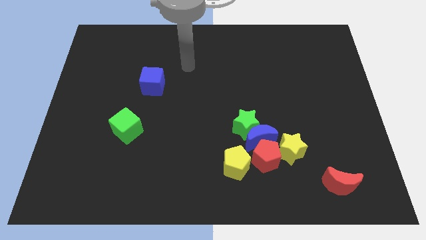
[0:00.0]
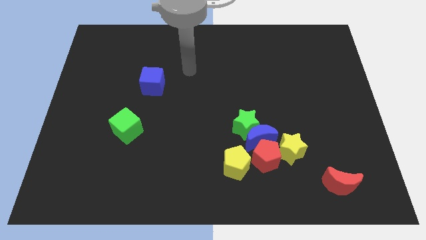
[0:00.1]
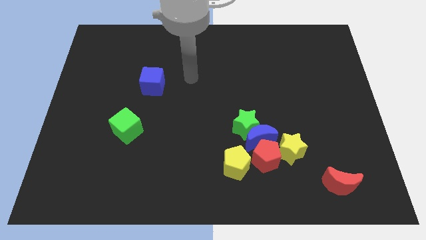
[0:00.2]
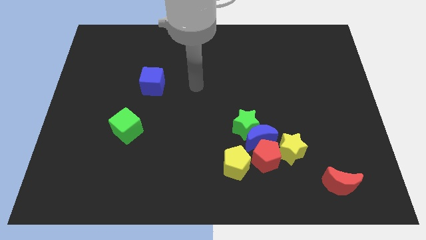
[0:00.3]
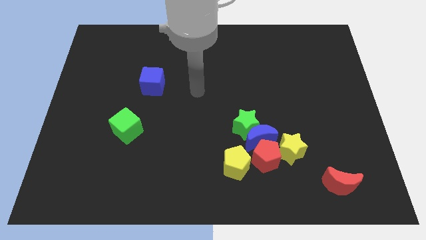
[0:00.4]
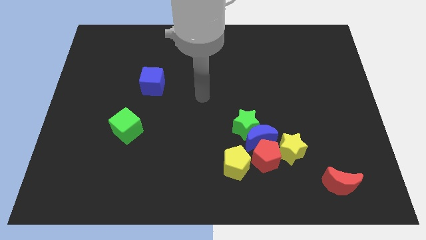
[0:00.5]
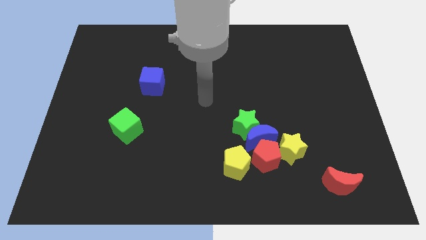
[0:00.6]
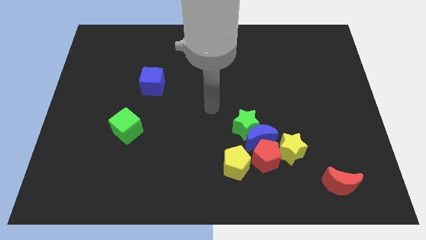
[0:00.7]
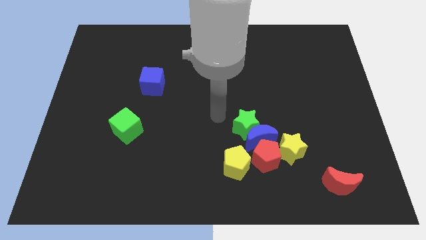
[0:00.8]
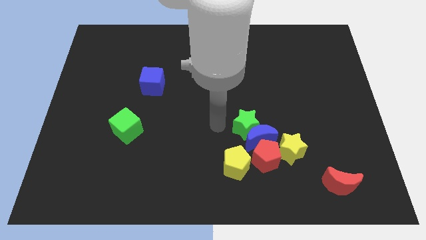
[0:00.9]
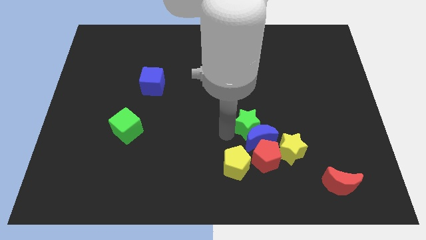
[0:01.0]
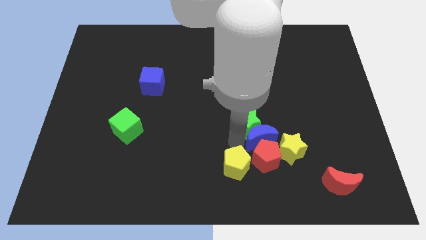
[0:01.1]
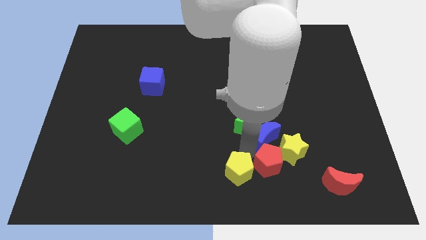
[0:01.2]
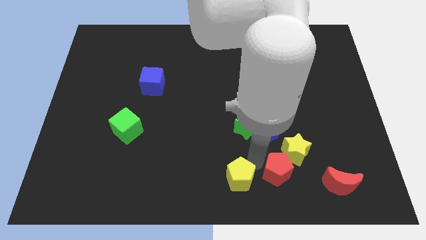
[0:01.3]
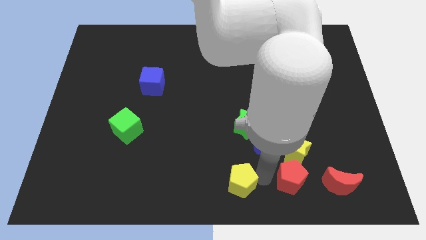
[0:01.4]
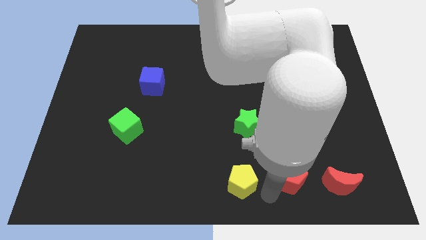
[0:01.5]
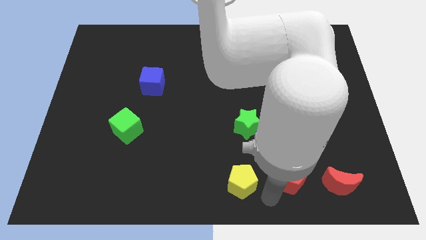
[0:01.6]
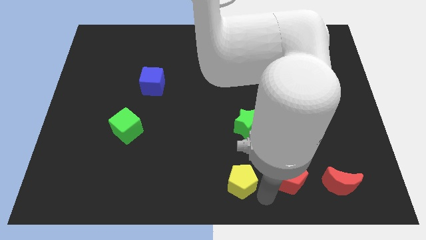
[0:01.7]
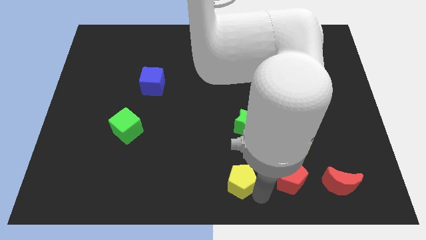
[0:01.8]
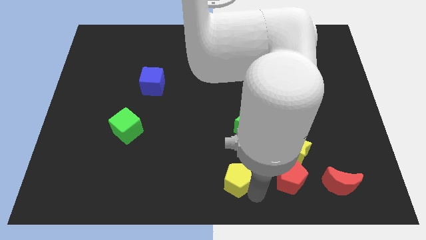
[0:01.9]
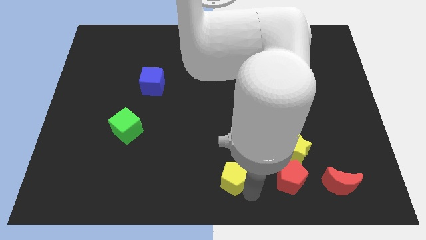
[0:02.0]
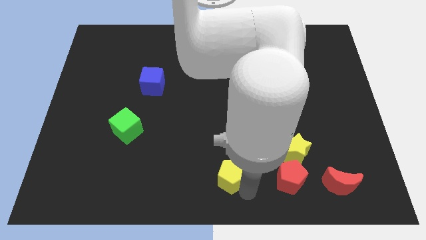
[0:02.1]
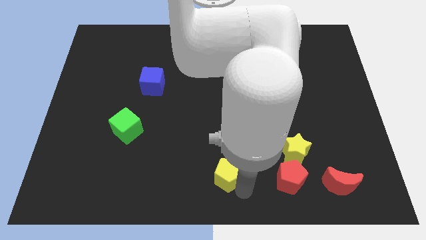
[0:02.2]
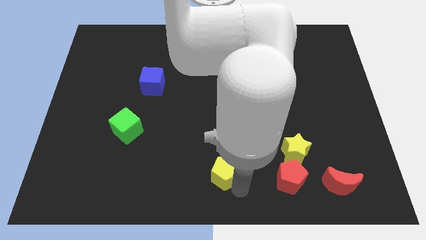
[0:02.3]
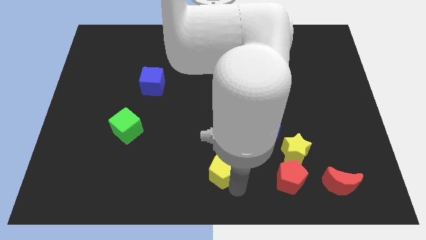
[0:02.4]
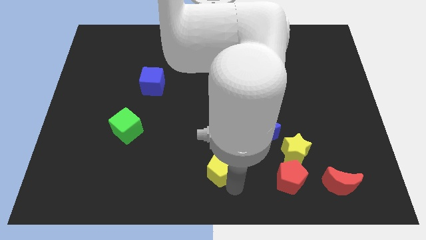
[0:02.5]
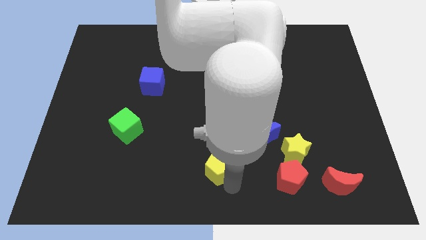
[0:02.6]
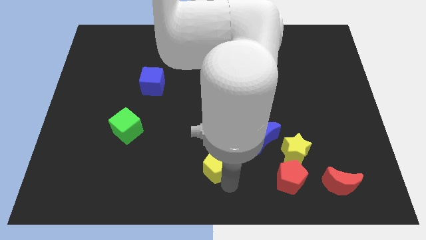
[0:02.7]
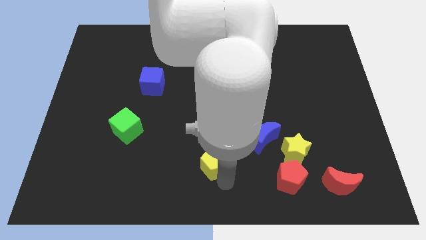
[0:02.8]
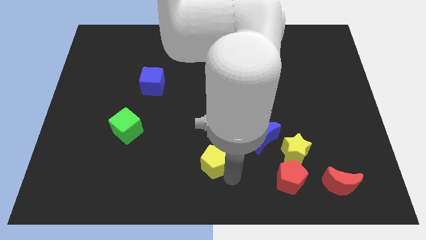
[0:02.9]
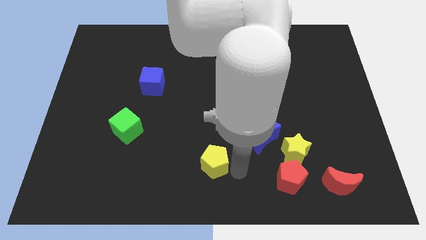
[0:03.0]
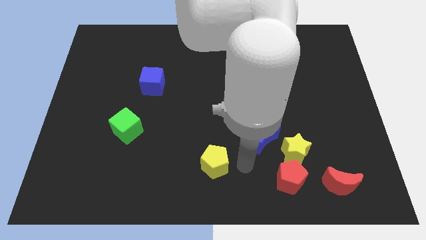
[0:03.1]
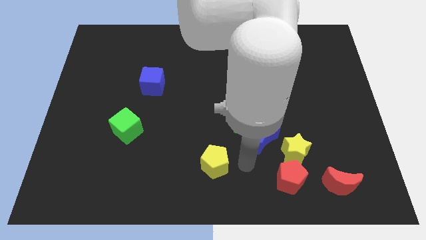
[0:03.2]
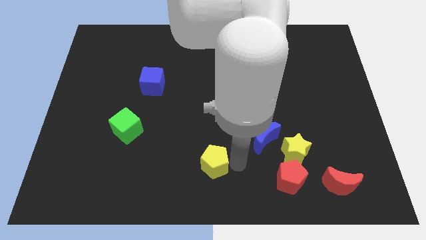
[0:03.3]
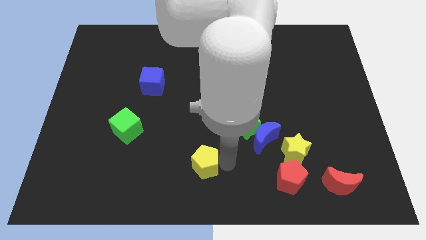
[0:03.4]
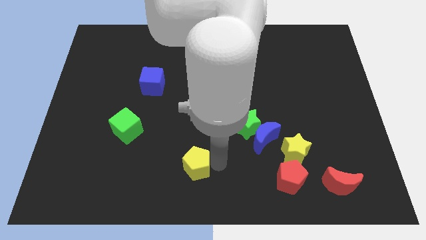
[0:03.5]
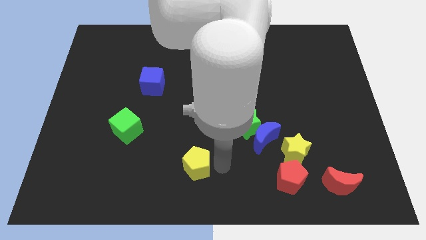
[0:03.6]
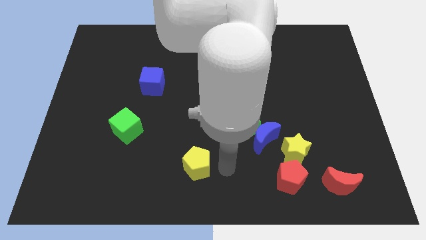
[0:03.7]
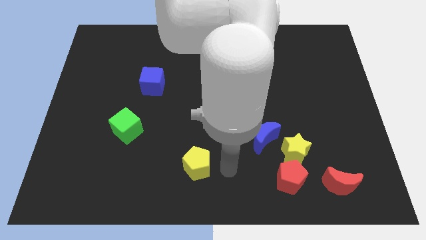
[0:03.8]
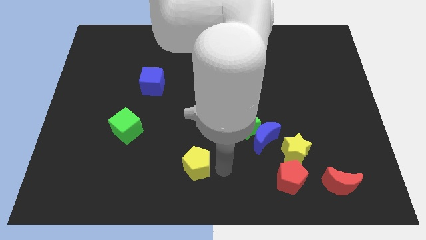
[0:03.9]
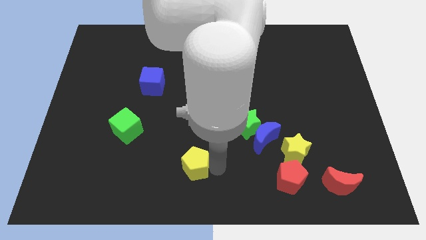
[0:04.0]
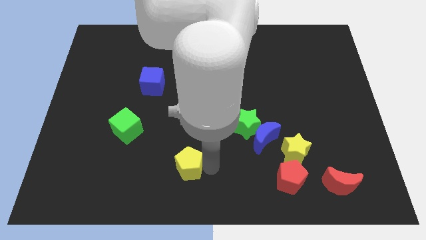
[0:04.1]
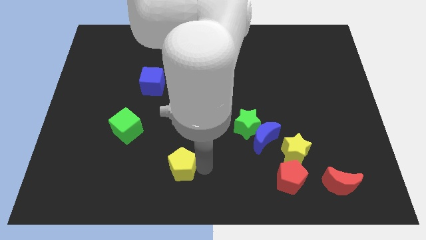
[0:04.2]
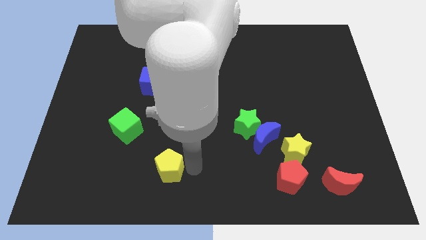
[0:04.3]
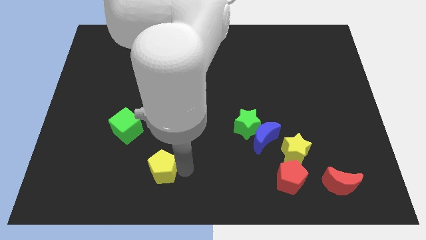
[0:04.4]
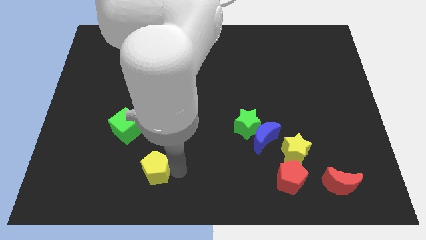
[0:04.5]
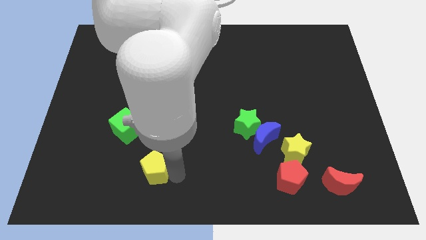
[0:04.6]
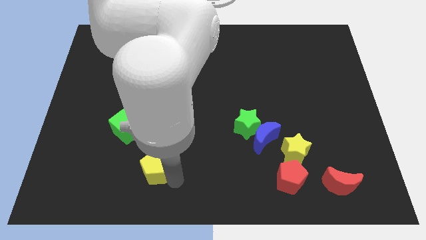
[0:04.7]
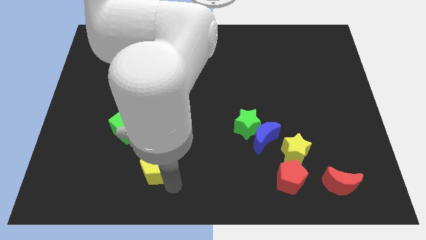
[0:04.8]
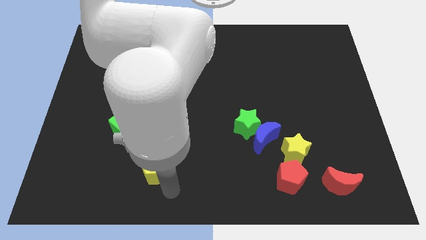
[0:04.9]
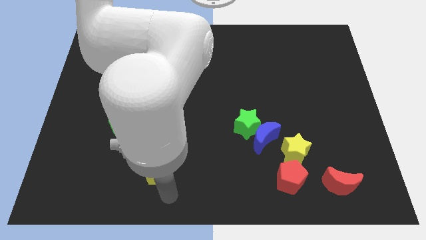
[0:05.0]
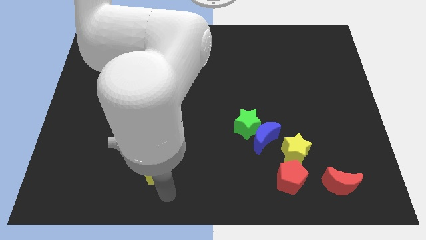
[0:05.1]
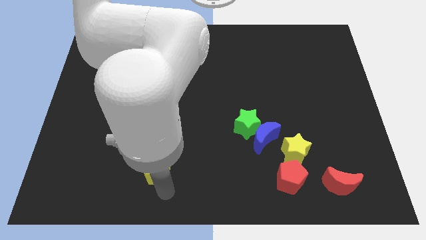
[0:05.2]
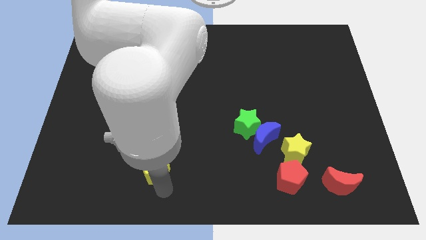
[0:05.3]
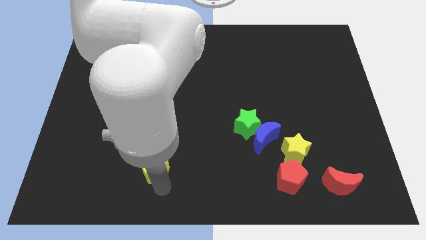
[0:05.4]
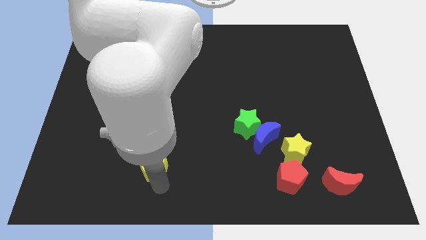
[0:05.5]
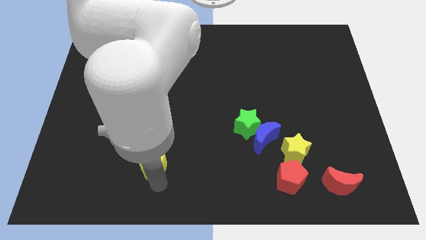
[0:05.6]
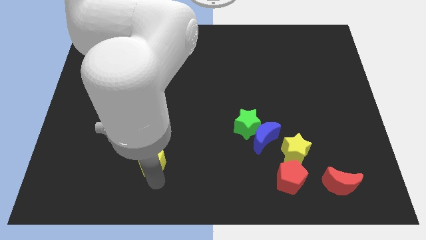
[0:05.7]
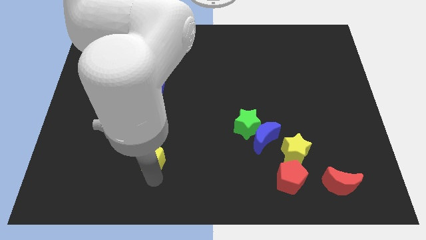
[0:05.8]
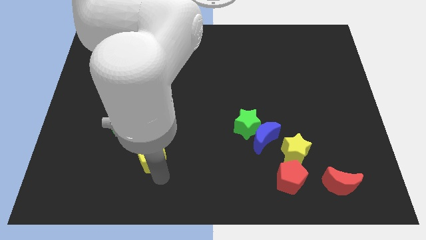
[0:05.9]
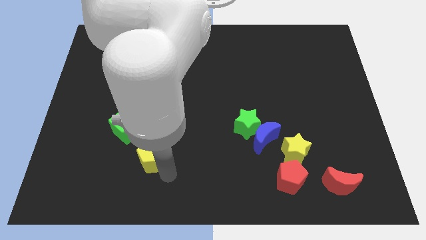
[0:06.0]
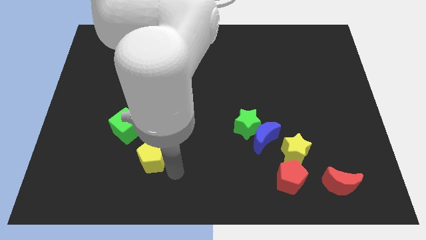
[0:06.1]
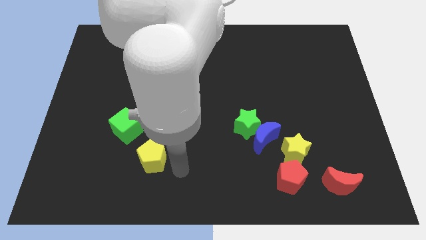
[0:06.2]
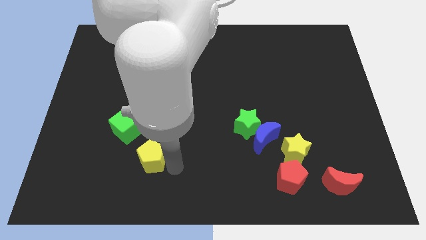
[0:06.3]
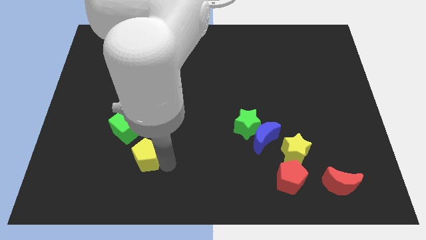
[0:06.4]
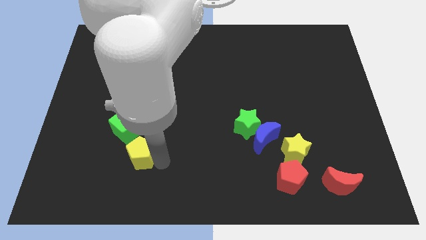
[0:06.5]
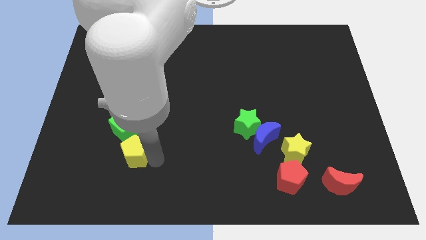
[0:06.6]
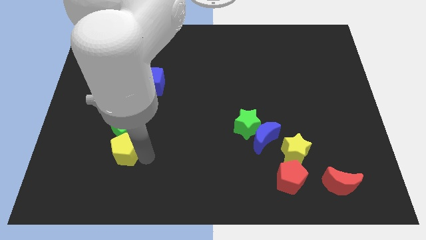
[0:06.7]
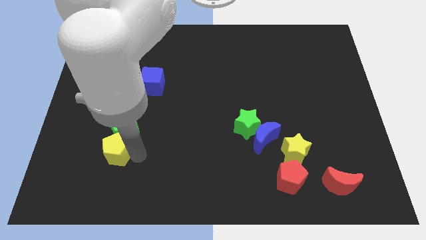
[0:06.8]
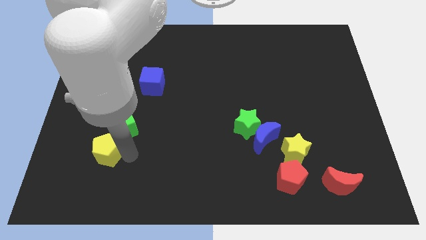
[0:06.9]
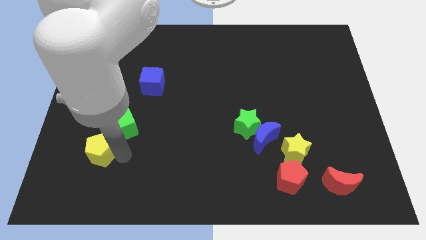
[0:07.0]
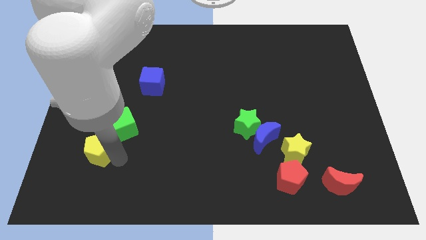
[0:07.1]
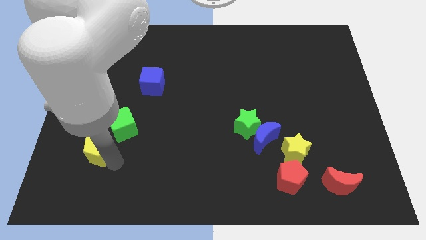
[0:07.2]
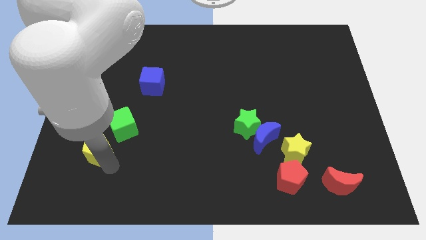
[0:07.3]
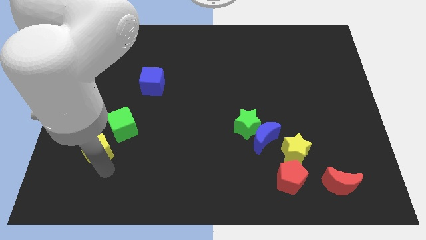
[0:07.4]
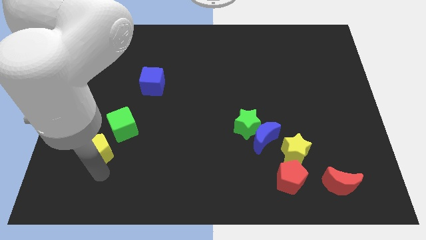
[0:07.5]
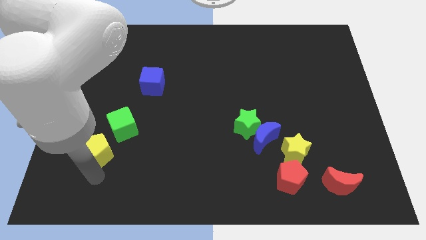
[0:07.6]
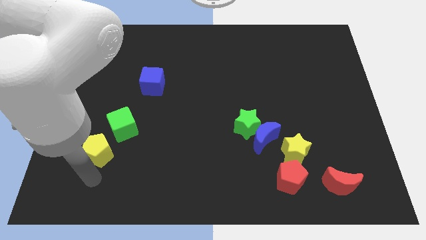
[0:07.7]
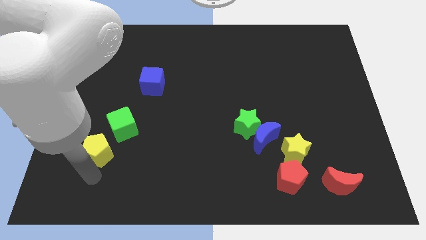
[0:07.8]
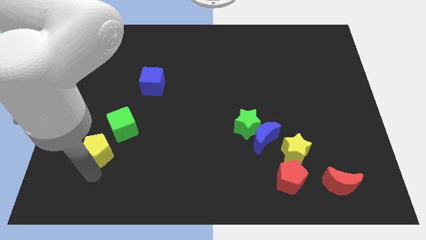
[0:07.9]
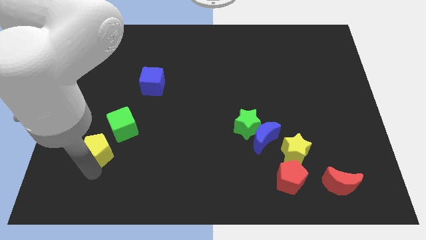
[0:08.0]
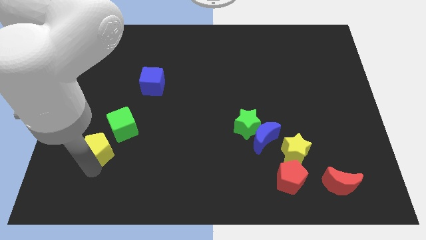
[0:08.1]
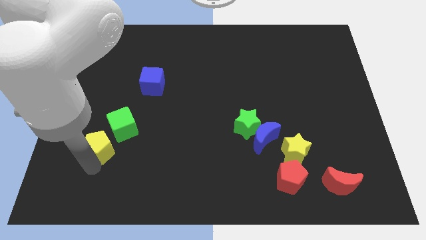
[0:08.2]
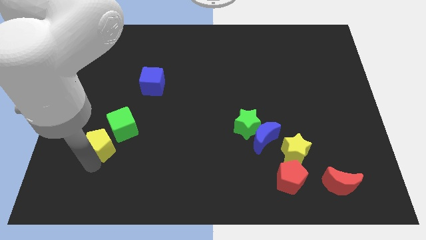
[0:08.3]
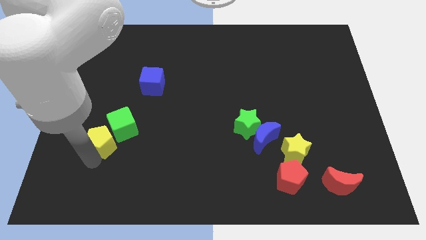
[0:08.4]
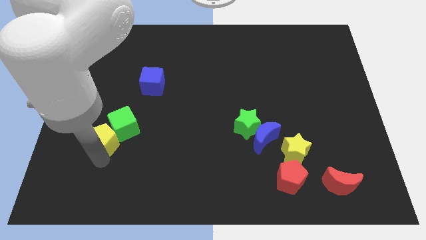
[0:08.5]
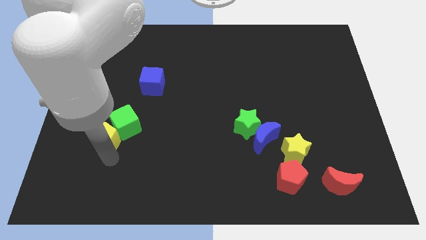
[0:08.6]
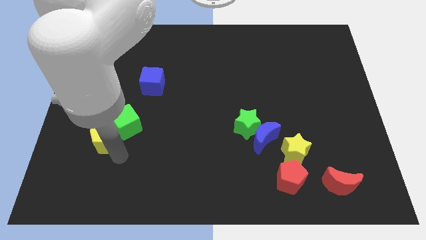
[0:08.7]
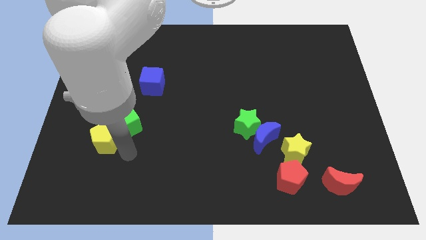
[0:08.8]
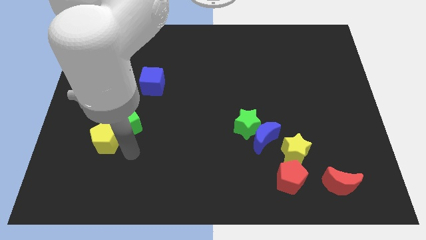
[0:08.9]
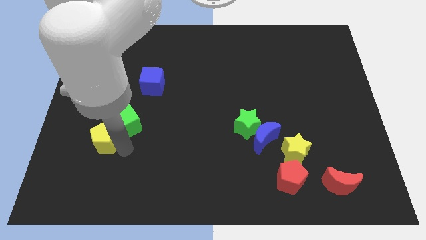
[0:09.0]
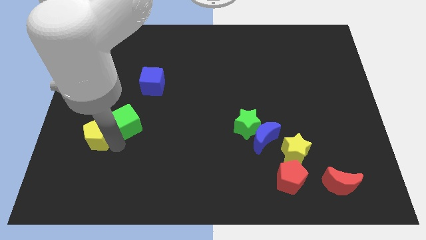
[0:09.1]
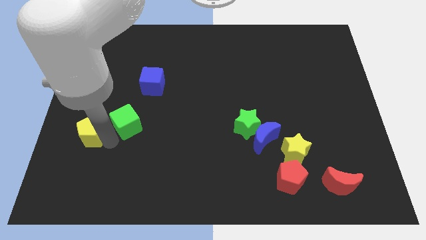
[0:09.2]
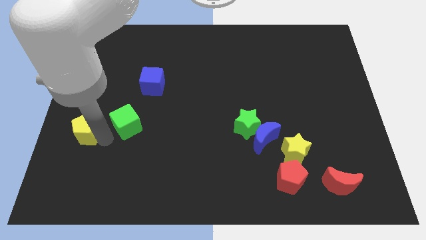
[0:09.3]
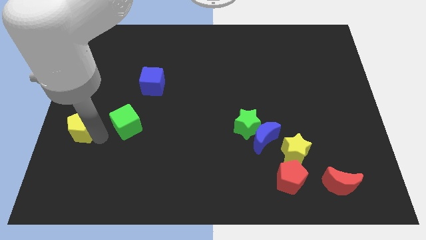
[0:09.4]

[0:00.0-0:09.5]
move the yellow pentagon to the center left
